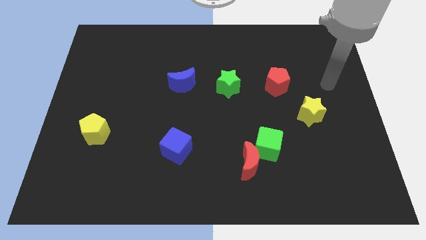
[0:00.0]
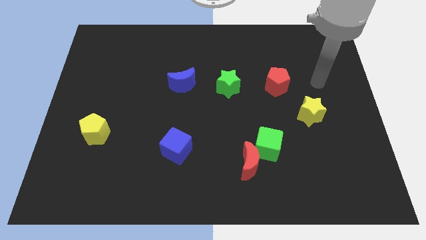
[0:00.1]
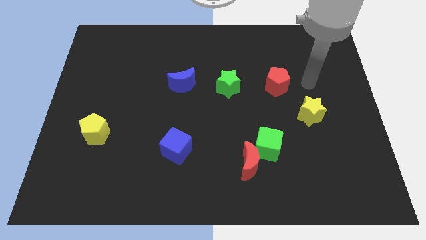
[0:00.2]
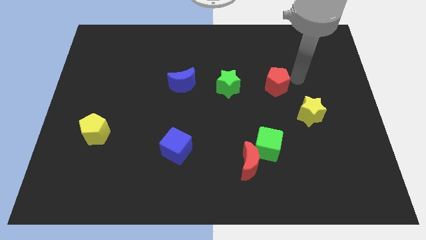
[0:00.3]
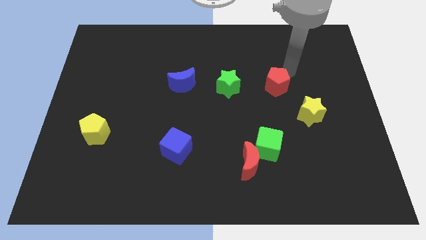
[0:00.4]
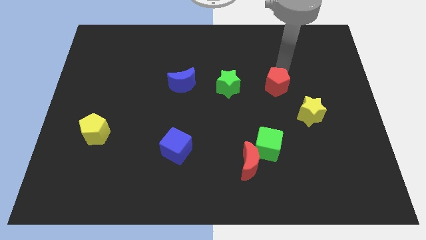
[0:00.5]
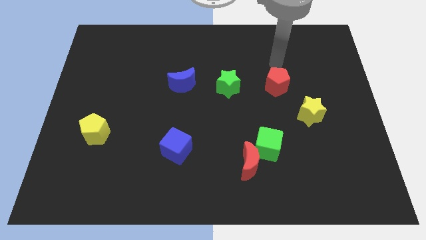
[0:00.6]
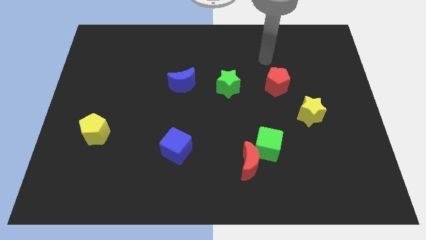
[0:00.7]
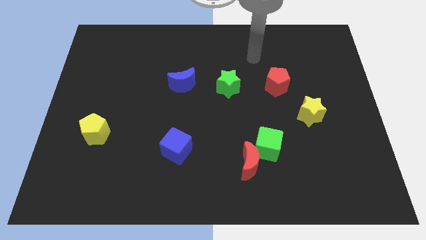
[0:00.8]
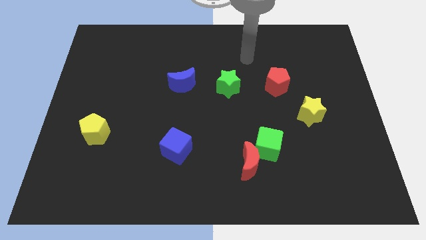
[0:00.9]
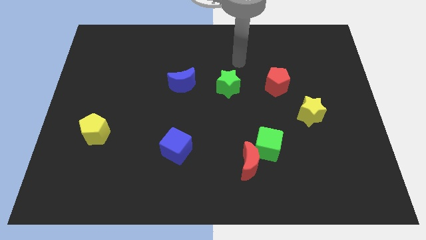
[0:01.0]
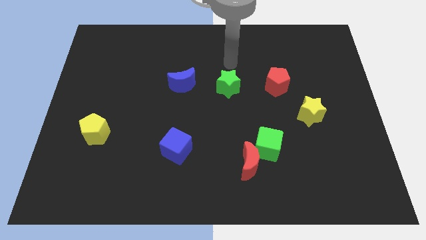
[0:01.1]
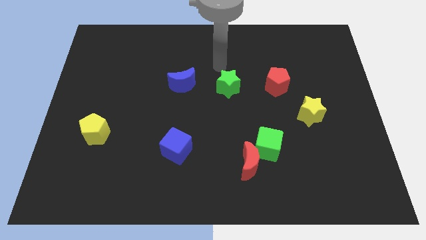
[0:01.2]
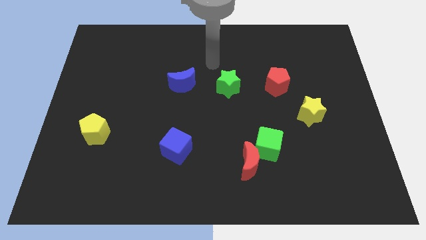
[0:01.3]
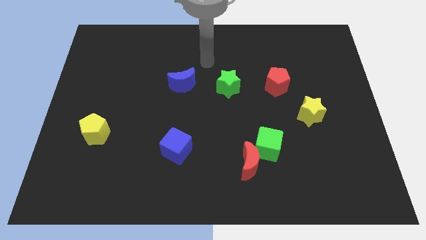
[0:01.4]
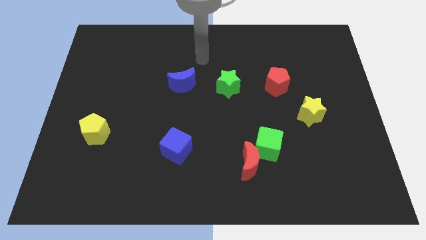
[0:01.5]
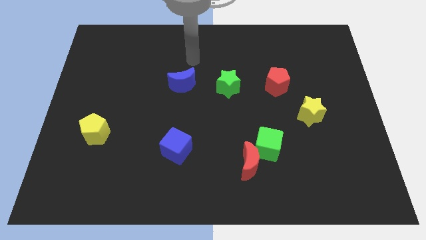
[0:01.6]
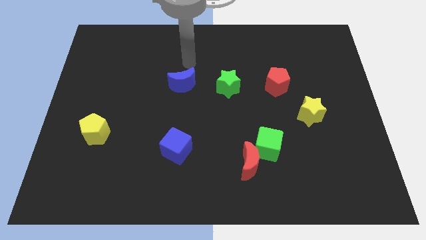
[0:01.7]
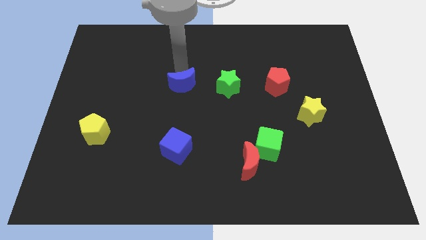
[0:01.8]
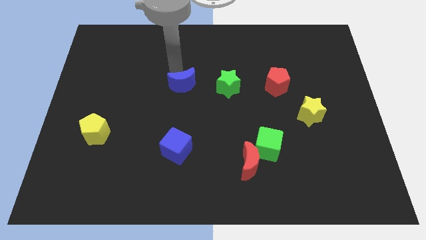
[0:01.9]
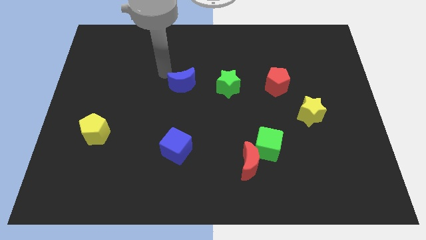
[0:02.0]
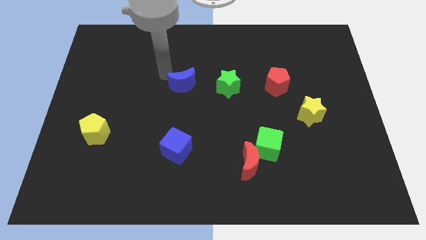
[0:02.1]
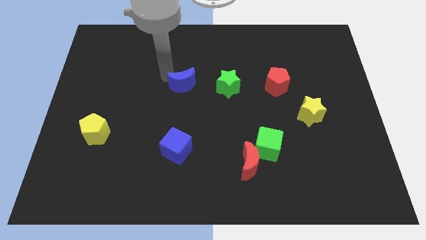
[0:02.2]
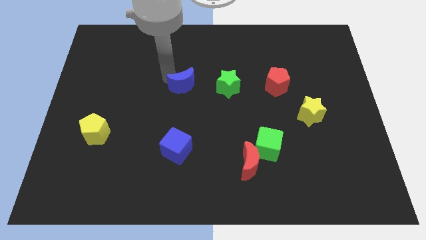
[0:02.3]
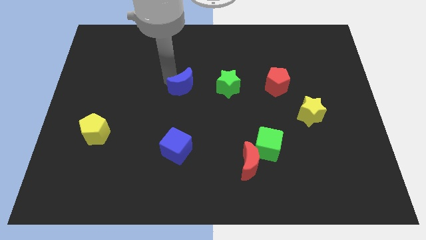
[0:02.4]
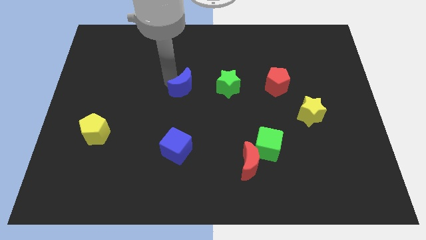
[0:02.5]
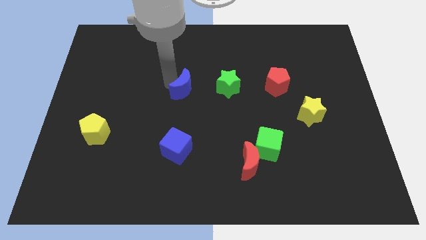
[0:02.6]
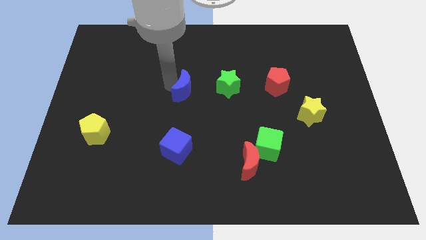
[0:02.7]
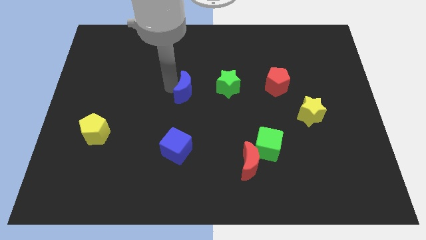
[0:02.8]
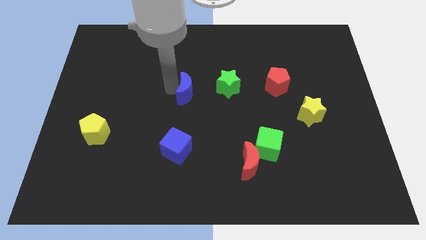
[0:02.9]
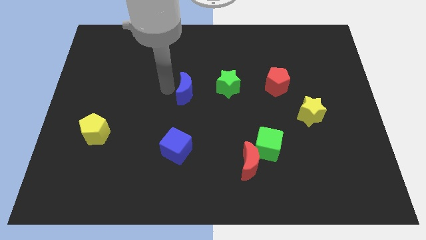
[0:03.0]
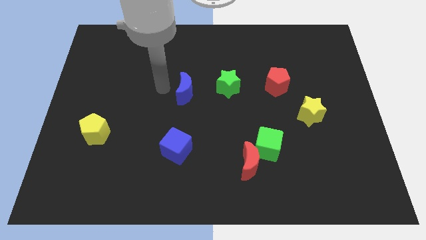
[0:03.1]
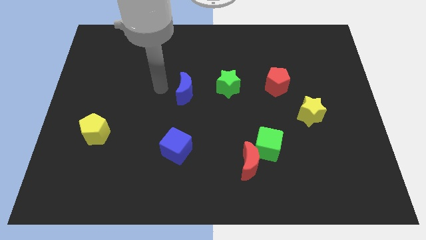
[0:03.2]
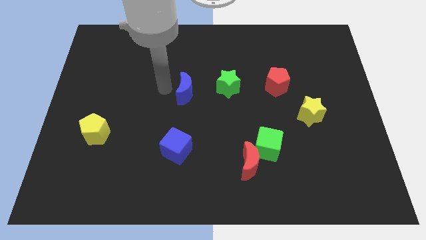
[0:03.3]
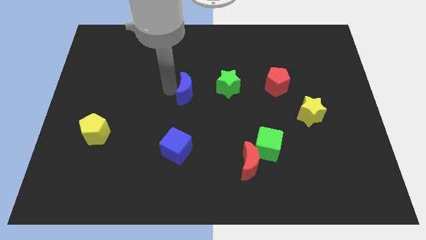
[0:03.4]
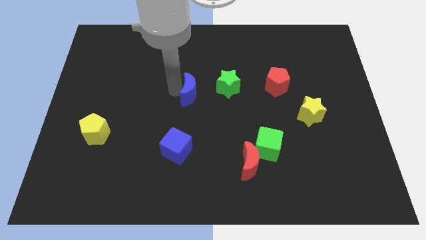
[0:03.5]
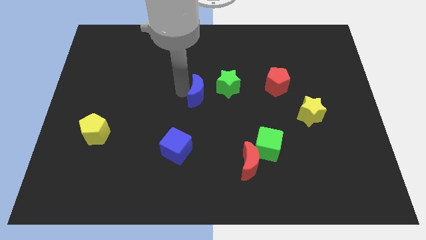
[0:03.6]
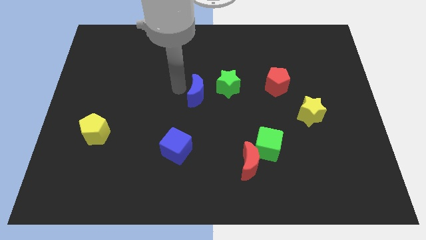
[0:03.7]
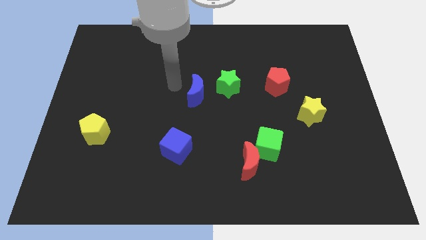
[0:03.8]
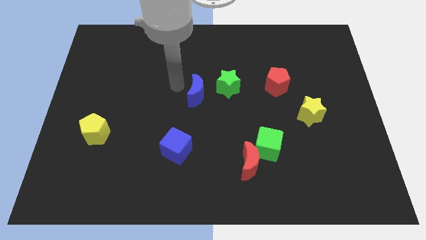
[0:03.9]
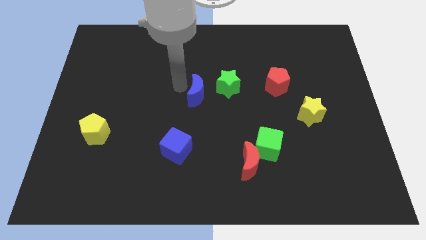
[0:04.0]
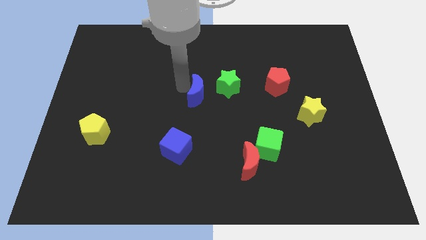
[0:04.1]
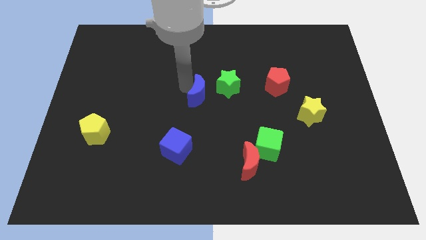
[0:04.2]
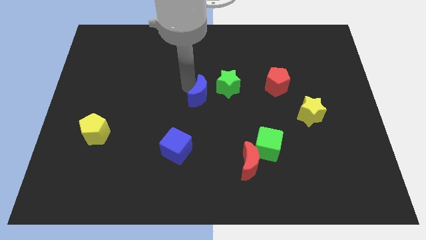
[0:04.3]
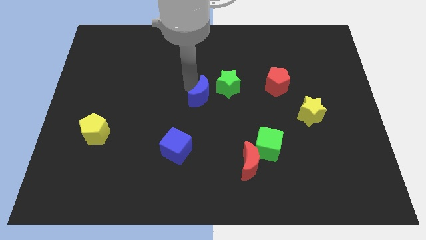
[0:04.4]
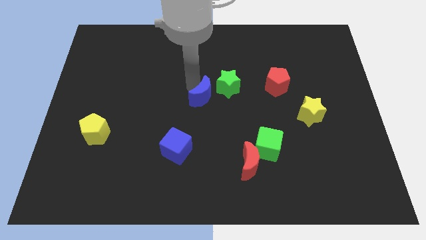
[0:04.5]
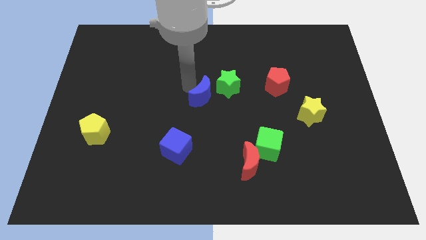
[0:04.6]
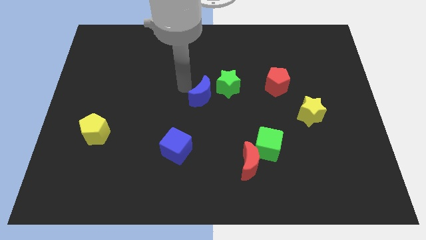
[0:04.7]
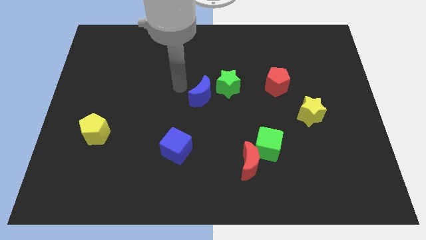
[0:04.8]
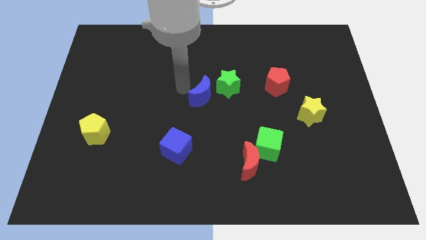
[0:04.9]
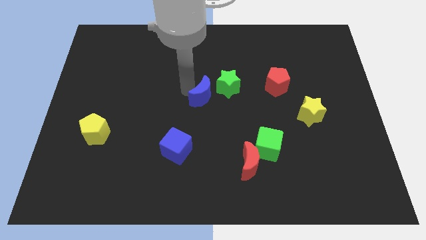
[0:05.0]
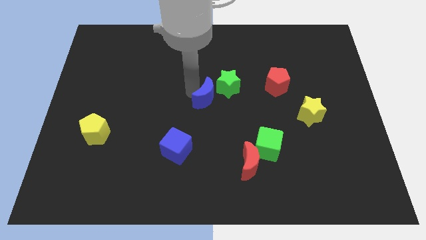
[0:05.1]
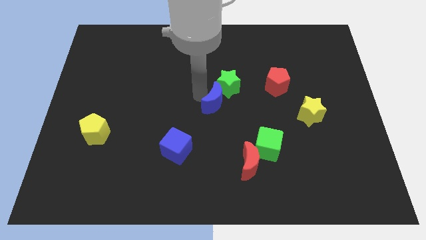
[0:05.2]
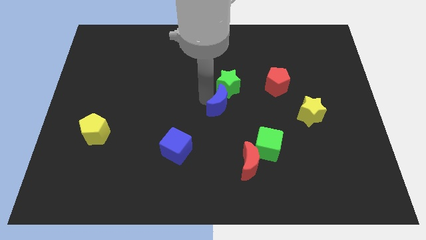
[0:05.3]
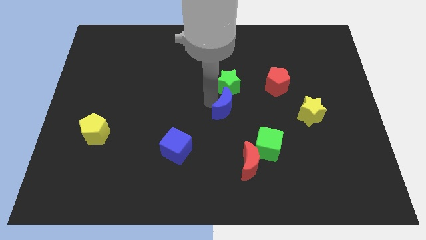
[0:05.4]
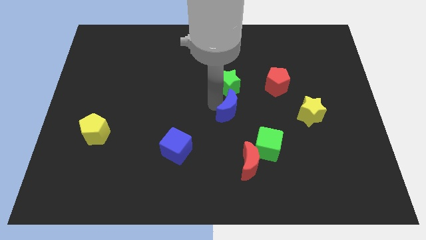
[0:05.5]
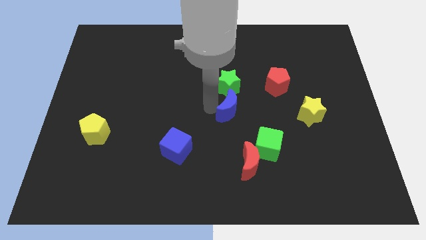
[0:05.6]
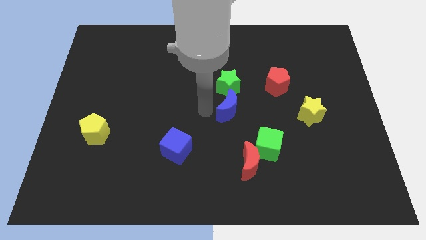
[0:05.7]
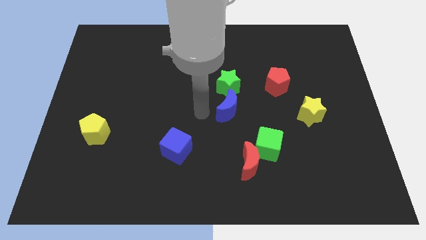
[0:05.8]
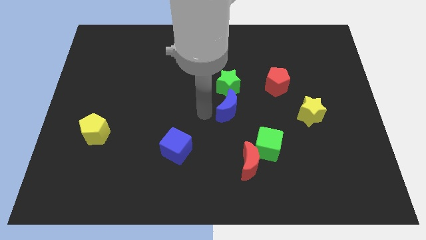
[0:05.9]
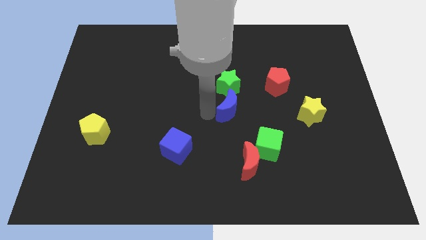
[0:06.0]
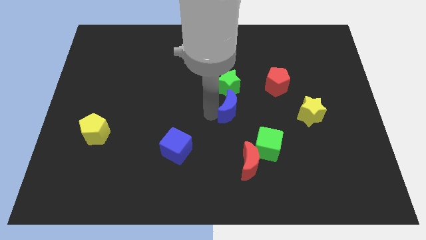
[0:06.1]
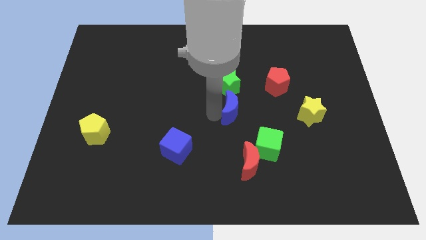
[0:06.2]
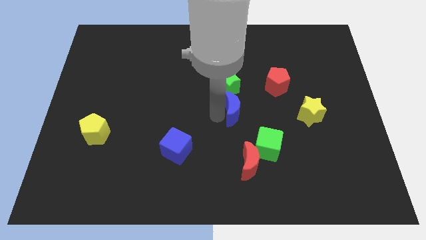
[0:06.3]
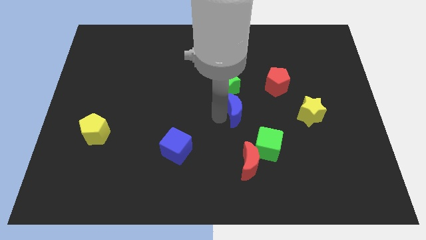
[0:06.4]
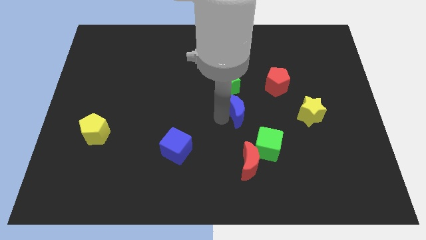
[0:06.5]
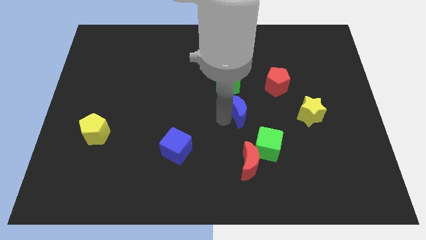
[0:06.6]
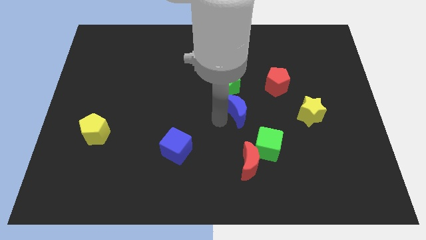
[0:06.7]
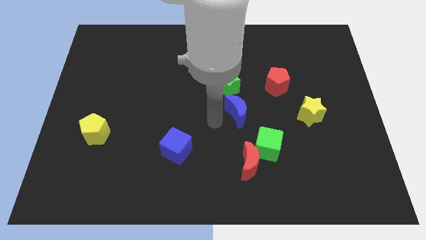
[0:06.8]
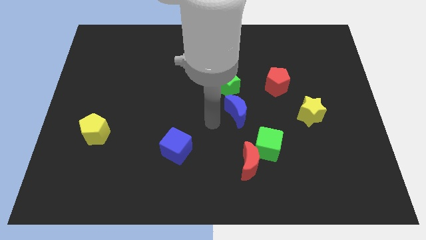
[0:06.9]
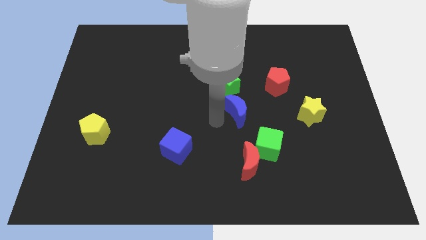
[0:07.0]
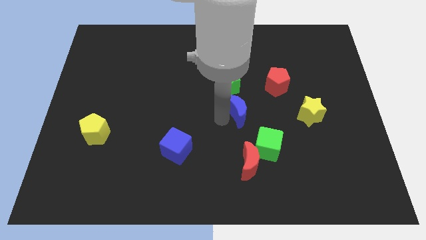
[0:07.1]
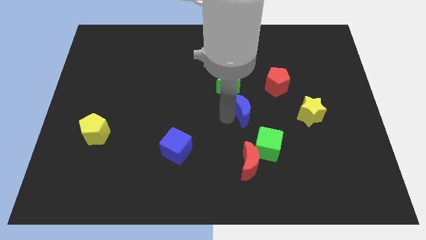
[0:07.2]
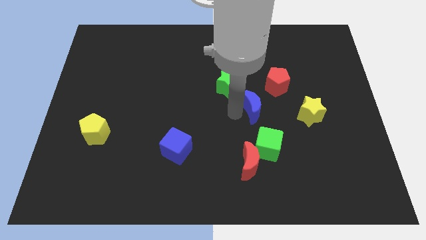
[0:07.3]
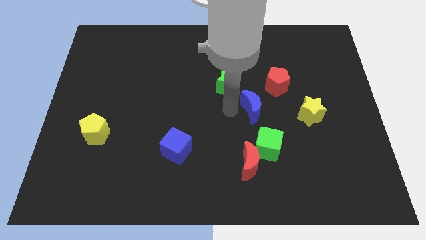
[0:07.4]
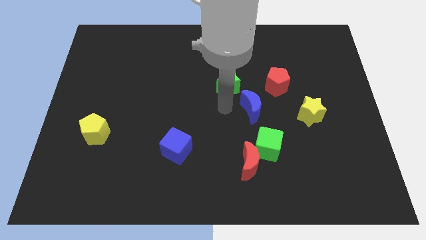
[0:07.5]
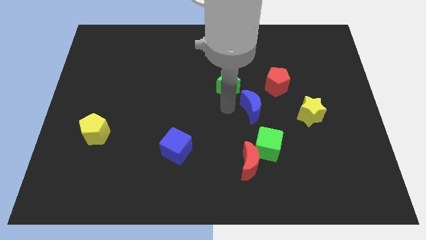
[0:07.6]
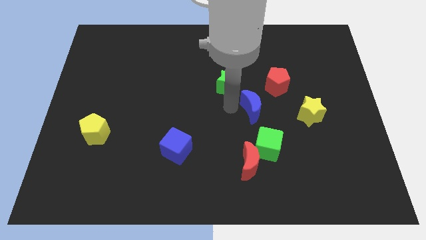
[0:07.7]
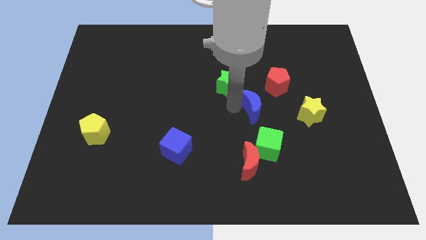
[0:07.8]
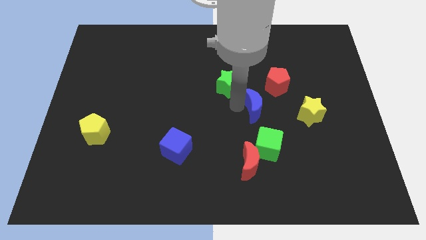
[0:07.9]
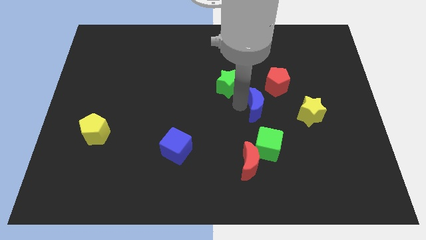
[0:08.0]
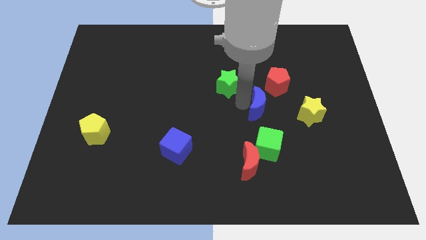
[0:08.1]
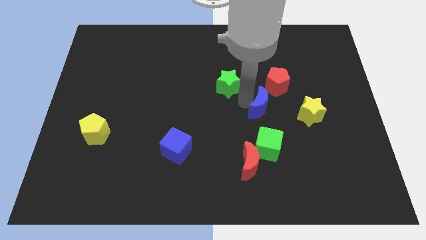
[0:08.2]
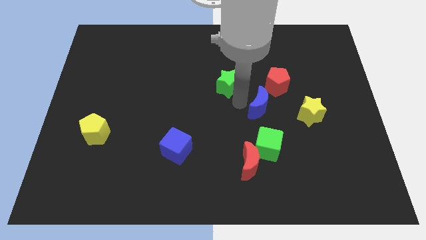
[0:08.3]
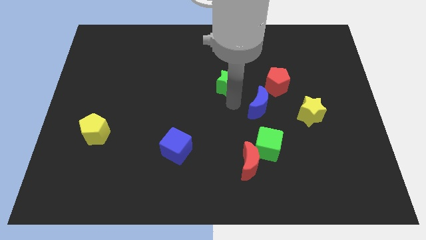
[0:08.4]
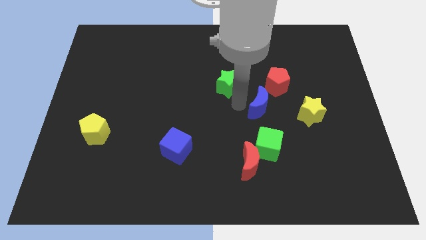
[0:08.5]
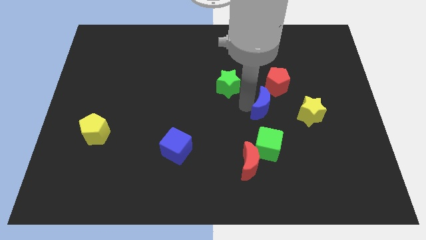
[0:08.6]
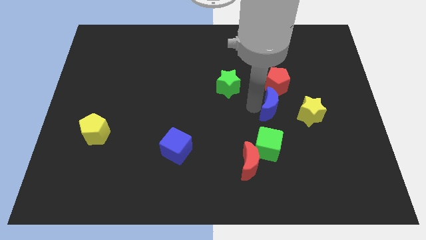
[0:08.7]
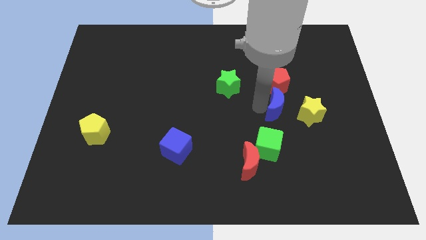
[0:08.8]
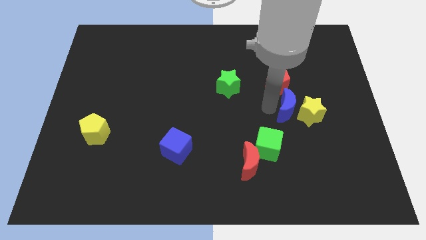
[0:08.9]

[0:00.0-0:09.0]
slide the blue moon close to the yellow star
